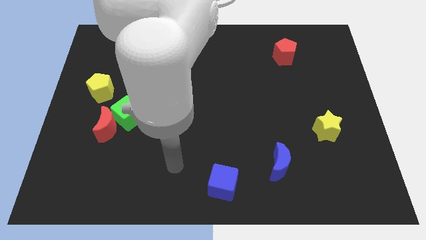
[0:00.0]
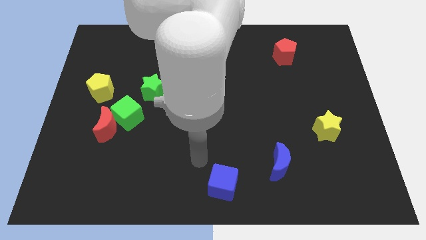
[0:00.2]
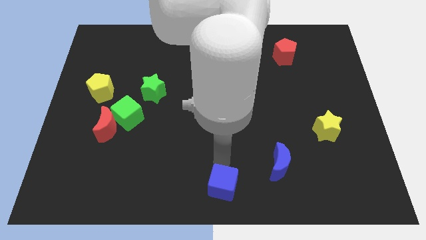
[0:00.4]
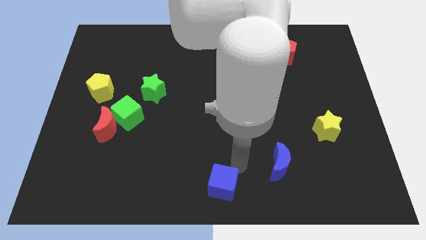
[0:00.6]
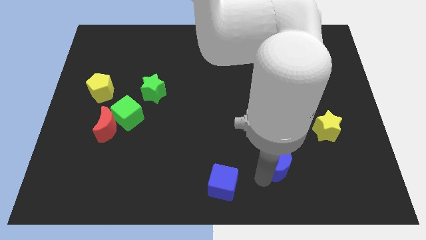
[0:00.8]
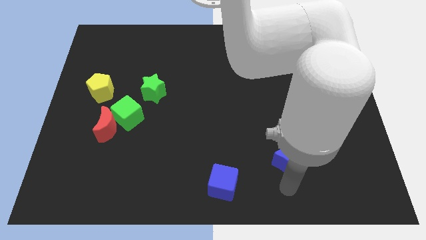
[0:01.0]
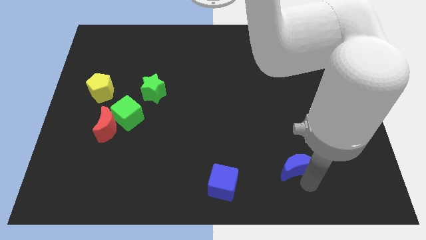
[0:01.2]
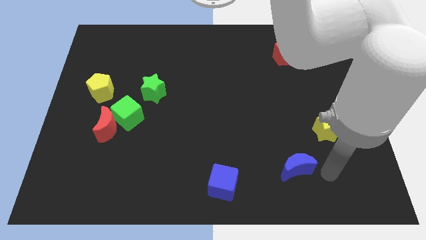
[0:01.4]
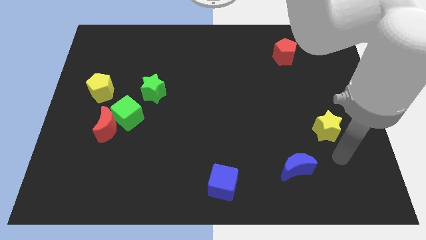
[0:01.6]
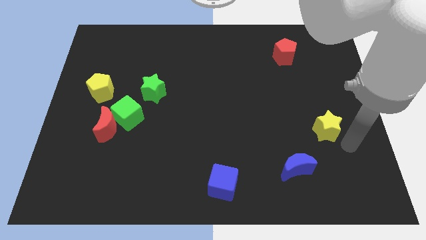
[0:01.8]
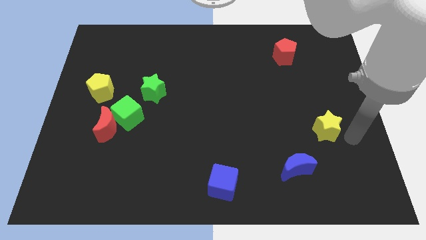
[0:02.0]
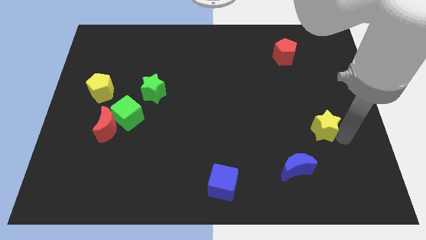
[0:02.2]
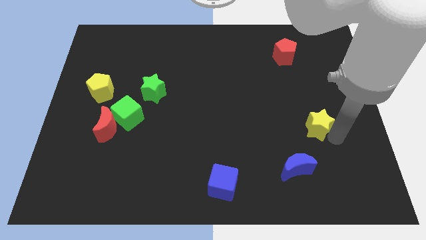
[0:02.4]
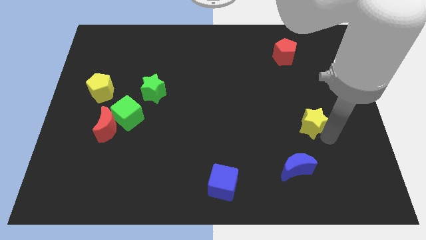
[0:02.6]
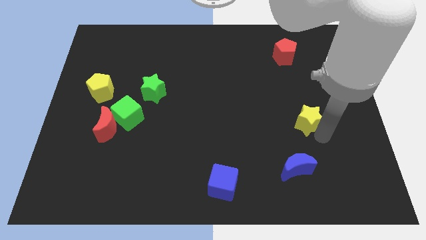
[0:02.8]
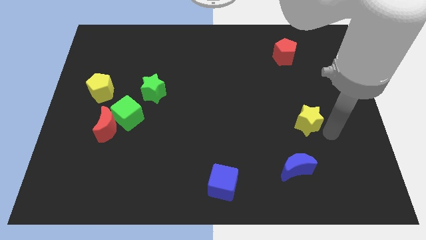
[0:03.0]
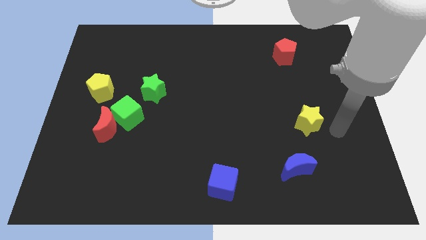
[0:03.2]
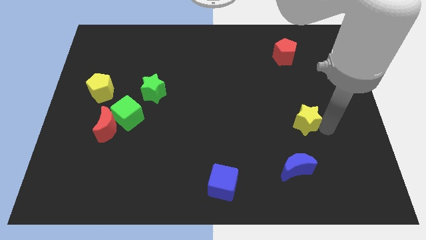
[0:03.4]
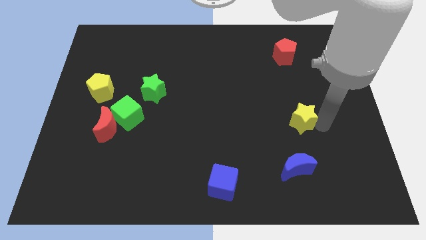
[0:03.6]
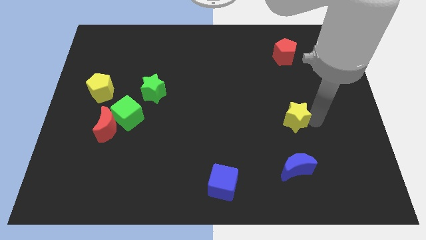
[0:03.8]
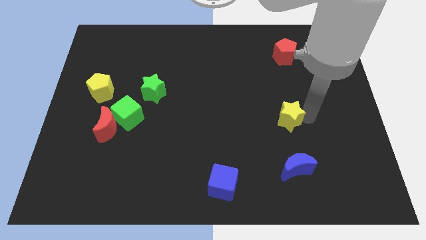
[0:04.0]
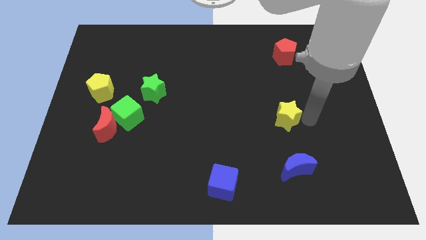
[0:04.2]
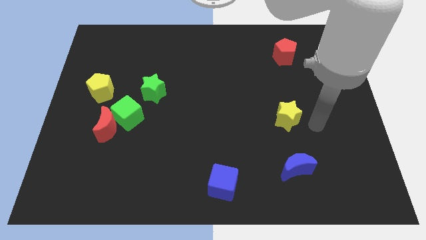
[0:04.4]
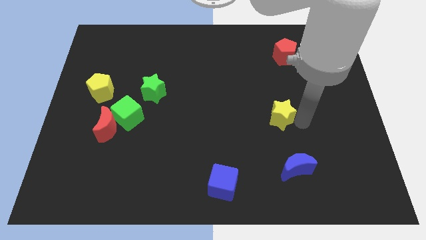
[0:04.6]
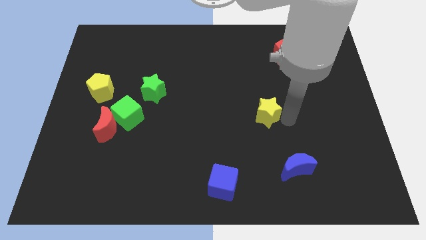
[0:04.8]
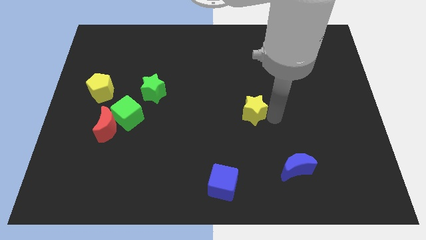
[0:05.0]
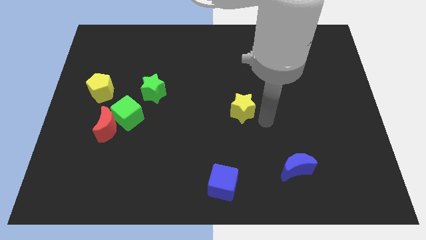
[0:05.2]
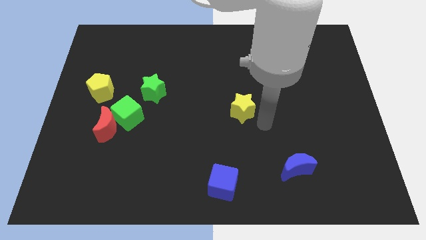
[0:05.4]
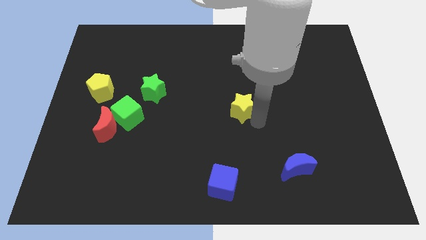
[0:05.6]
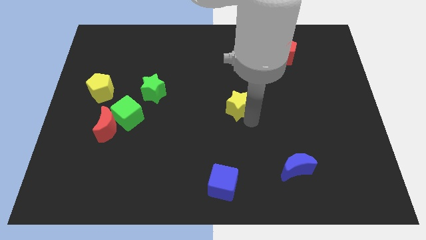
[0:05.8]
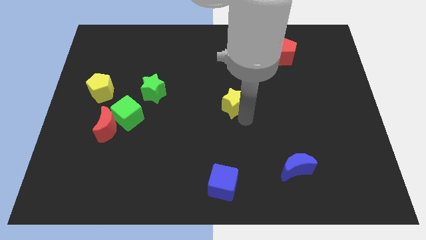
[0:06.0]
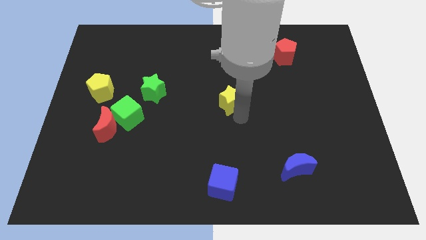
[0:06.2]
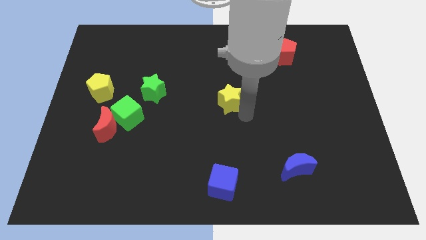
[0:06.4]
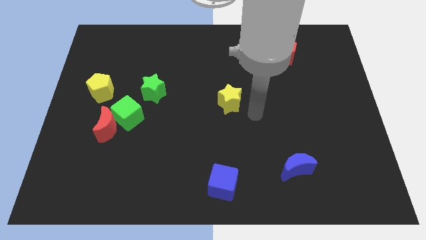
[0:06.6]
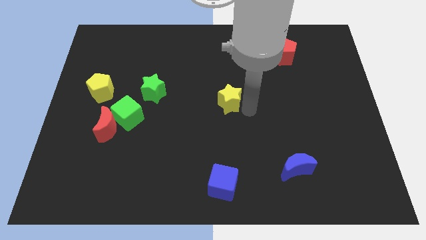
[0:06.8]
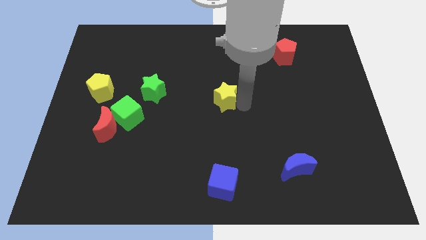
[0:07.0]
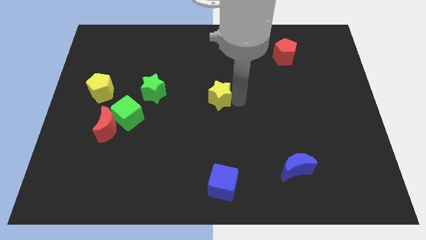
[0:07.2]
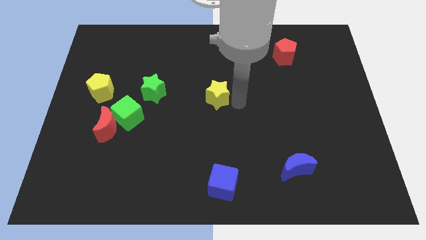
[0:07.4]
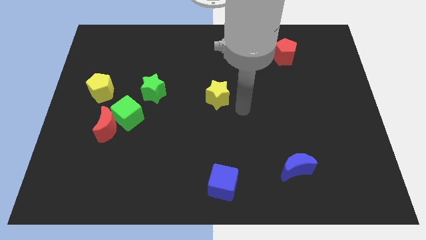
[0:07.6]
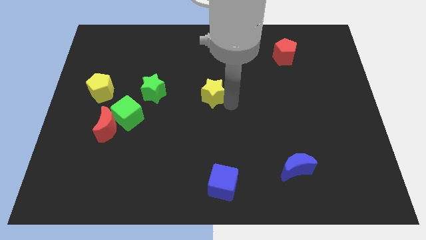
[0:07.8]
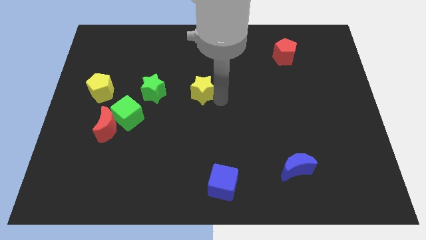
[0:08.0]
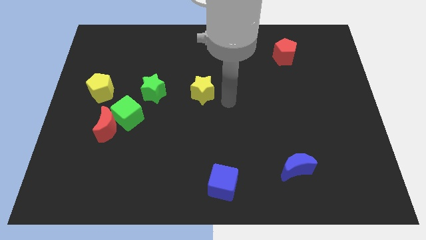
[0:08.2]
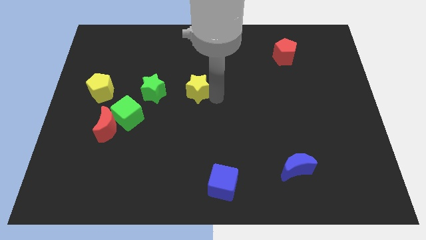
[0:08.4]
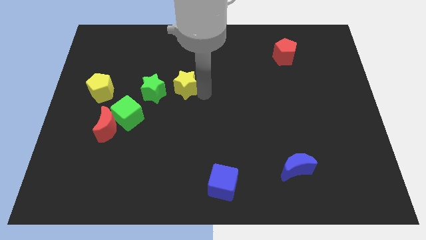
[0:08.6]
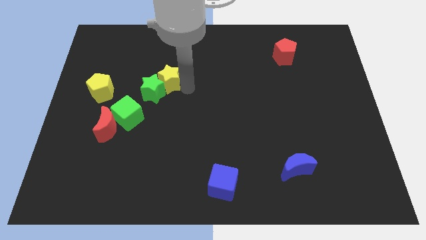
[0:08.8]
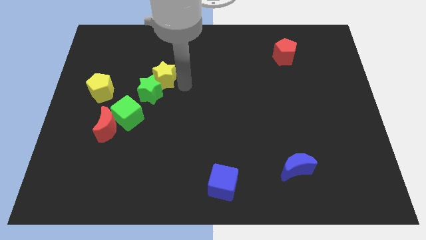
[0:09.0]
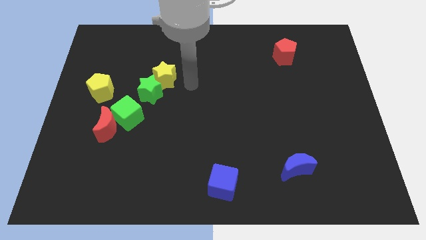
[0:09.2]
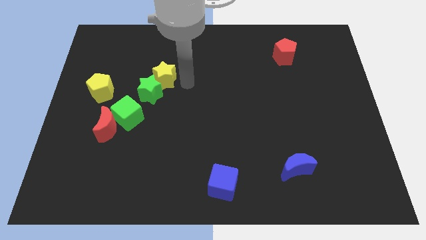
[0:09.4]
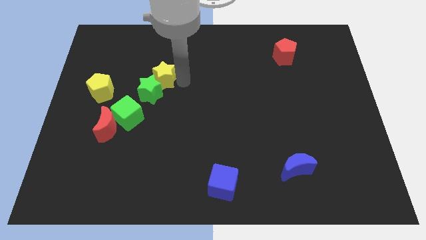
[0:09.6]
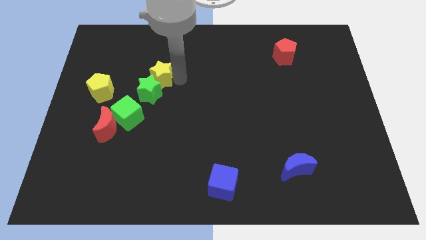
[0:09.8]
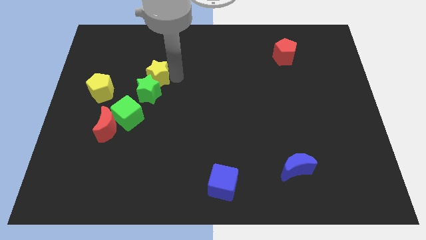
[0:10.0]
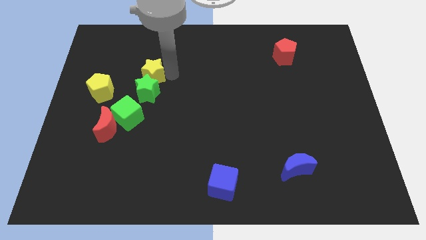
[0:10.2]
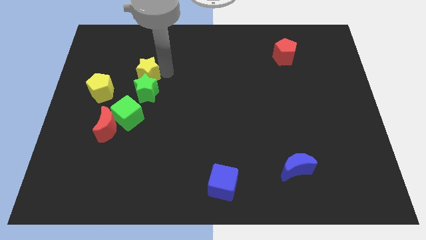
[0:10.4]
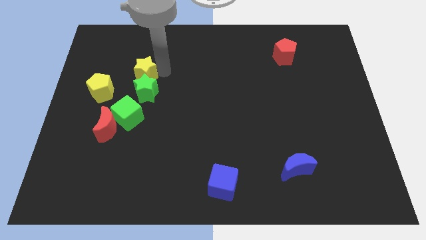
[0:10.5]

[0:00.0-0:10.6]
push the yellow star to the top right side of the yellow pentagon

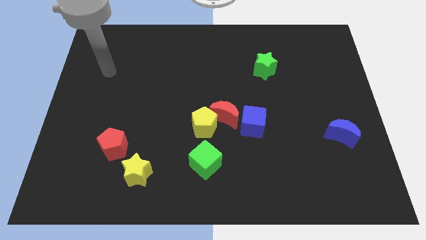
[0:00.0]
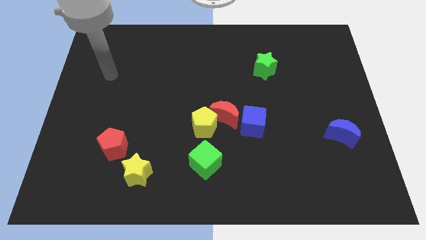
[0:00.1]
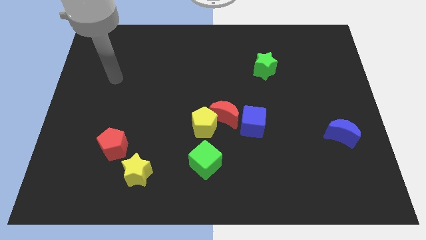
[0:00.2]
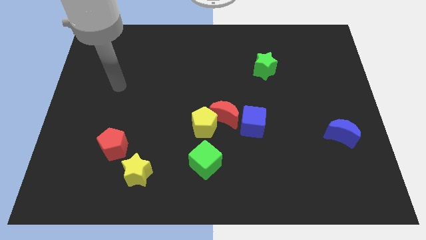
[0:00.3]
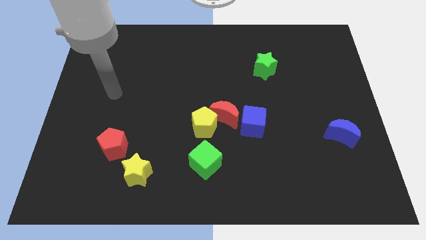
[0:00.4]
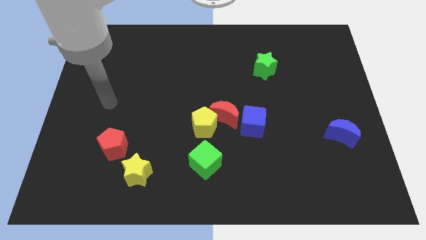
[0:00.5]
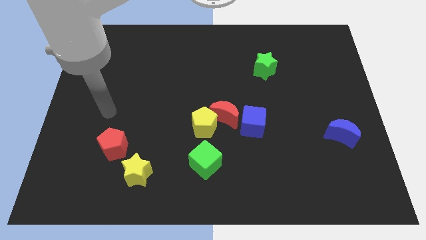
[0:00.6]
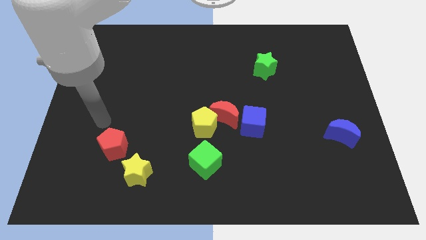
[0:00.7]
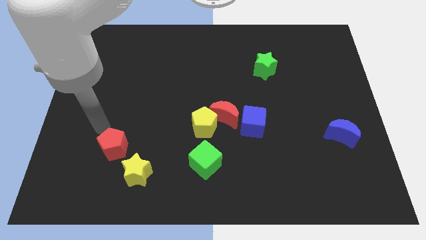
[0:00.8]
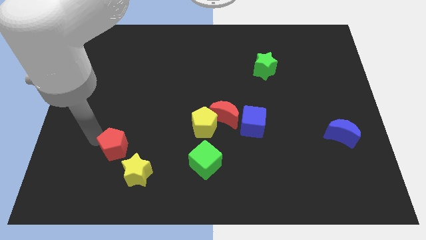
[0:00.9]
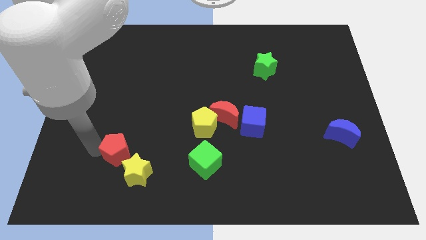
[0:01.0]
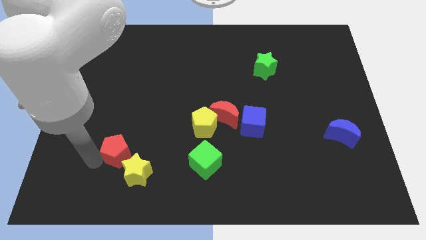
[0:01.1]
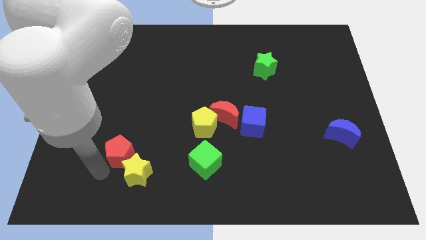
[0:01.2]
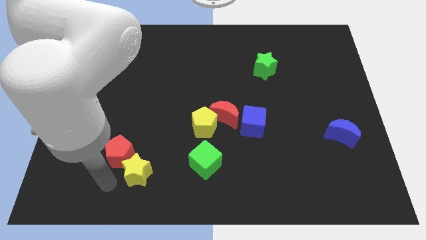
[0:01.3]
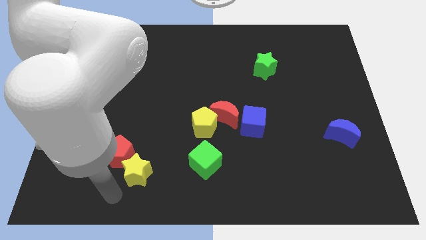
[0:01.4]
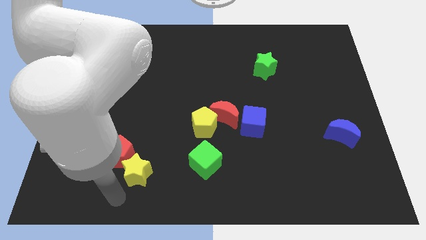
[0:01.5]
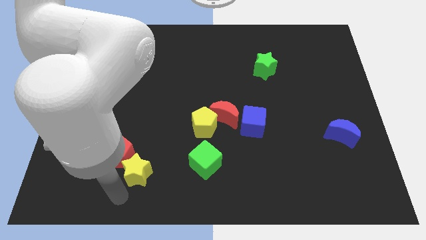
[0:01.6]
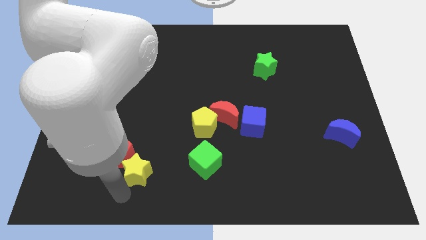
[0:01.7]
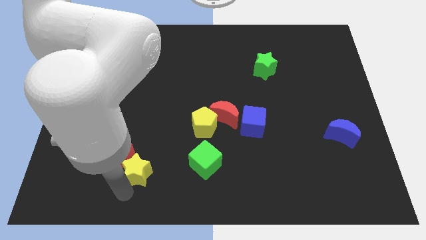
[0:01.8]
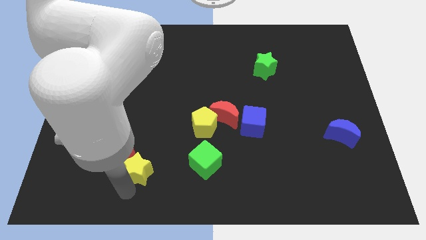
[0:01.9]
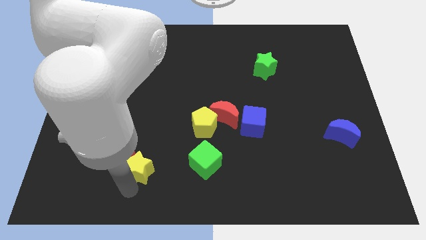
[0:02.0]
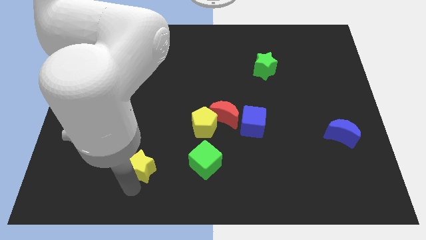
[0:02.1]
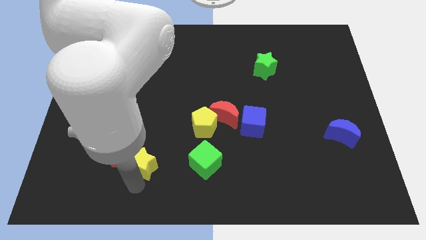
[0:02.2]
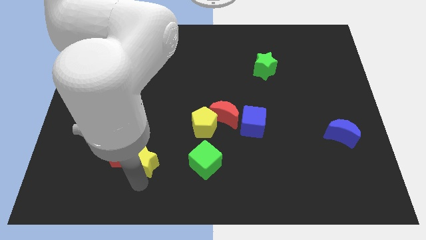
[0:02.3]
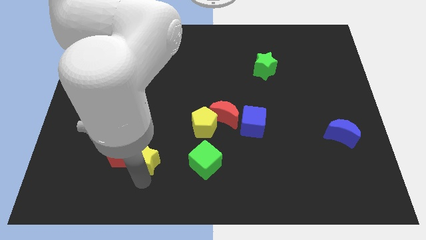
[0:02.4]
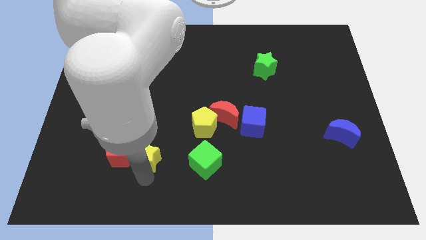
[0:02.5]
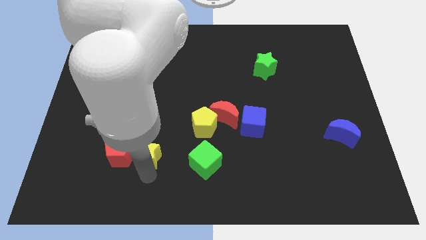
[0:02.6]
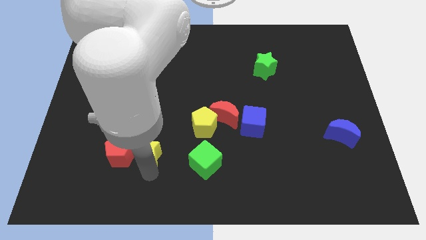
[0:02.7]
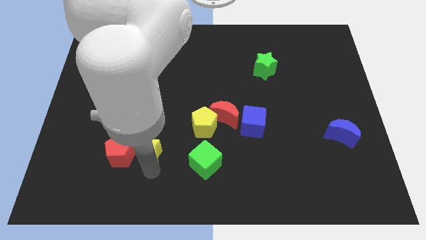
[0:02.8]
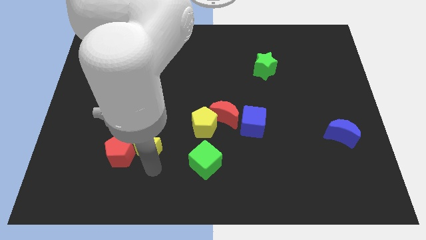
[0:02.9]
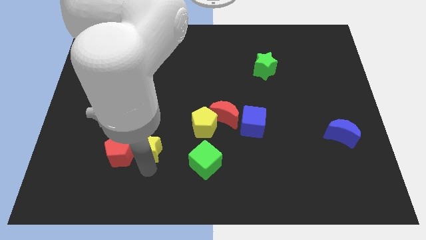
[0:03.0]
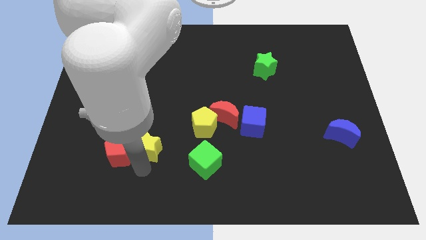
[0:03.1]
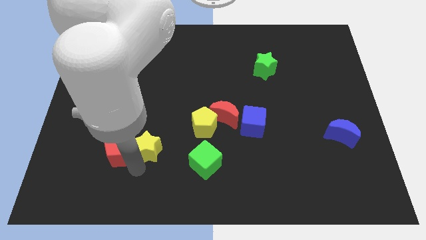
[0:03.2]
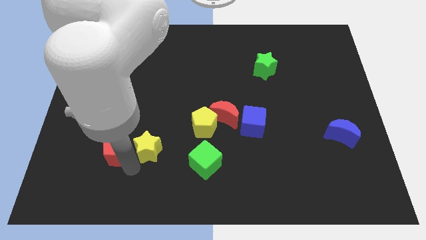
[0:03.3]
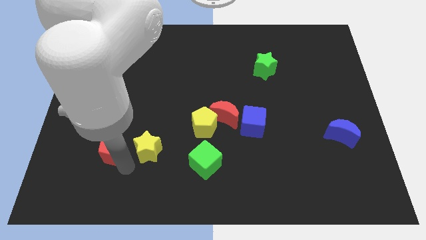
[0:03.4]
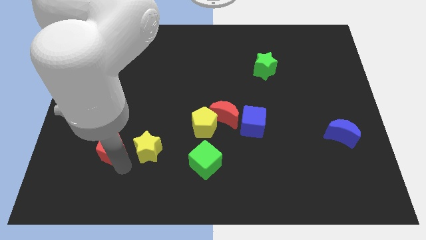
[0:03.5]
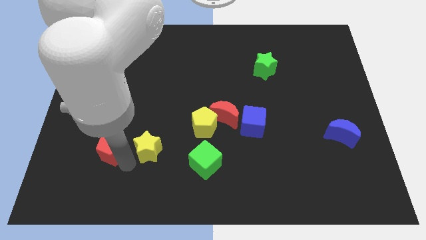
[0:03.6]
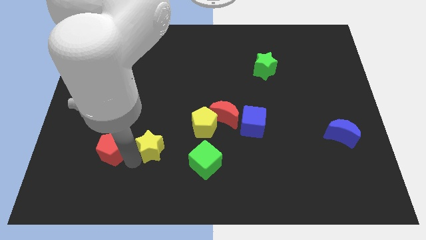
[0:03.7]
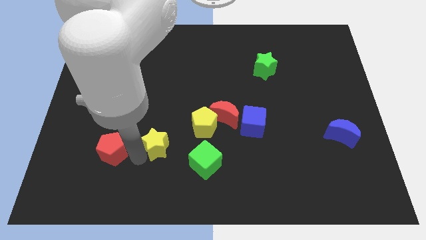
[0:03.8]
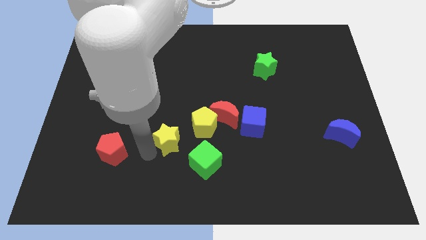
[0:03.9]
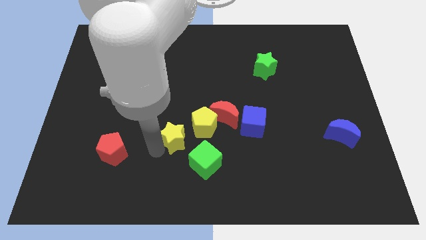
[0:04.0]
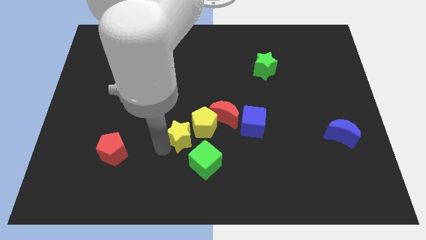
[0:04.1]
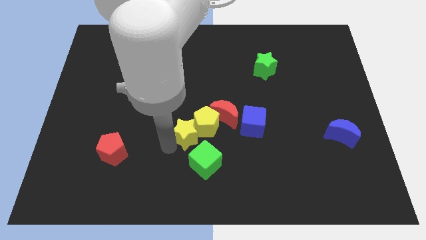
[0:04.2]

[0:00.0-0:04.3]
put the yellow star just left of the blue cube
